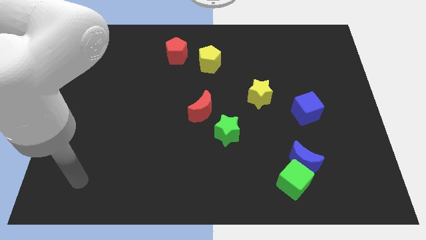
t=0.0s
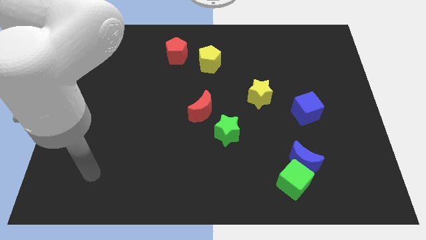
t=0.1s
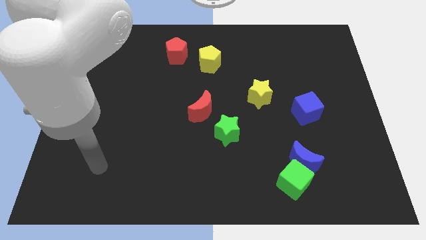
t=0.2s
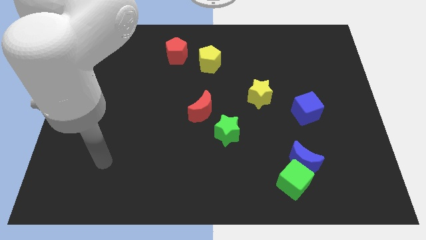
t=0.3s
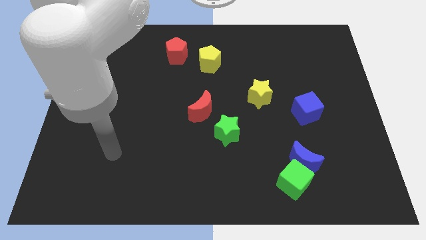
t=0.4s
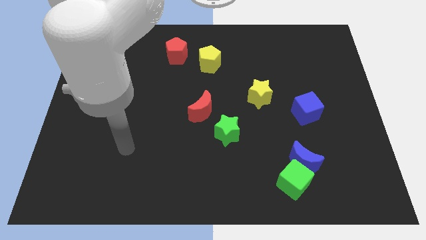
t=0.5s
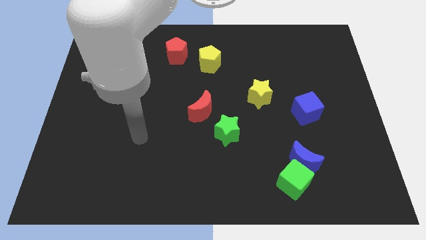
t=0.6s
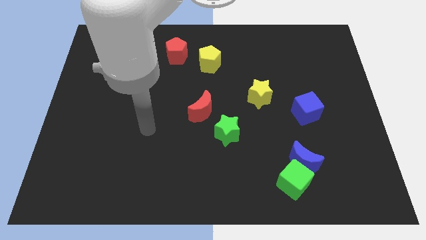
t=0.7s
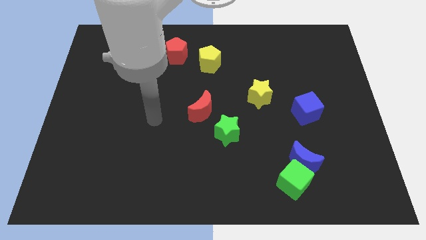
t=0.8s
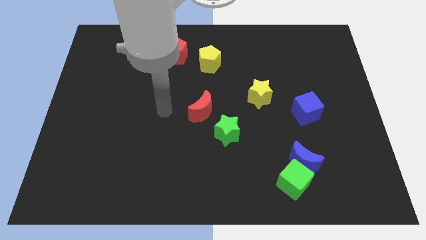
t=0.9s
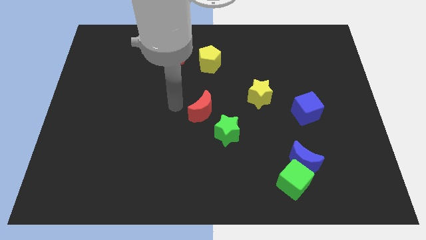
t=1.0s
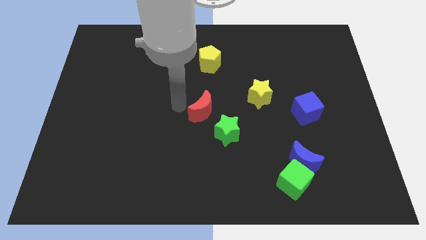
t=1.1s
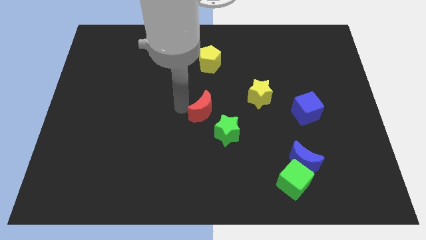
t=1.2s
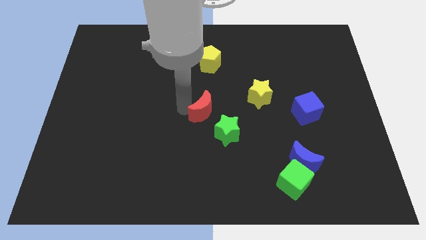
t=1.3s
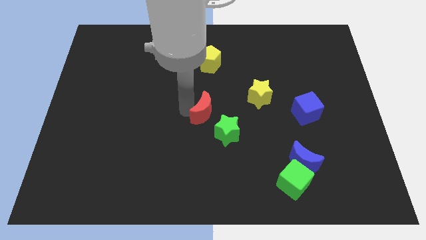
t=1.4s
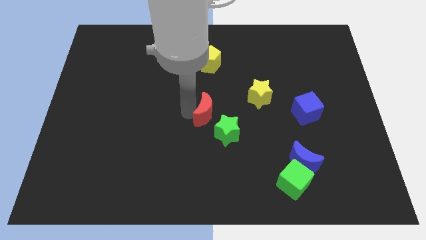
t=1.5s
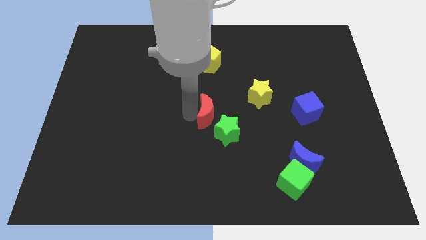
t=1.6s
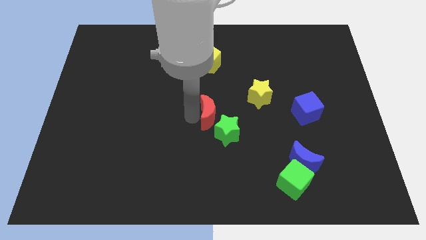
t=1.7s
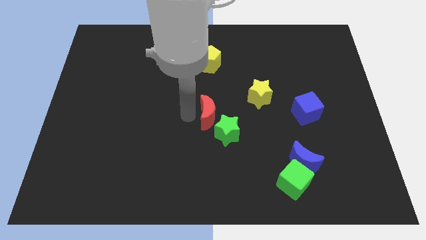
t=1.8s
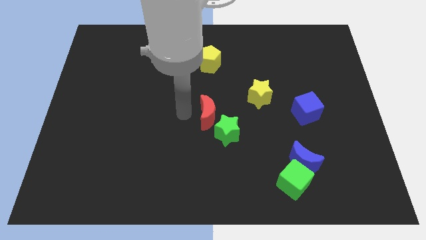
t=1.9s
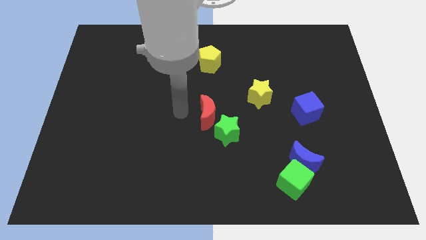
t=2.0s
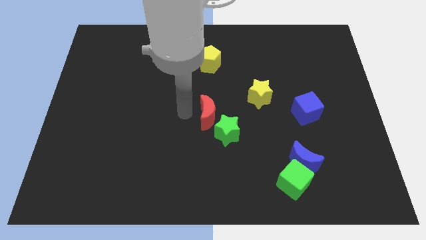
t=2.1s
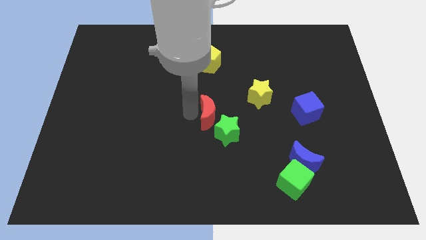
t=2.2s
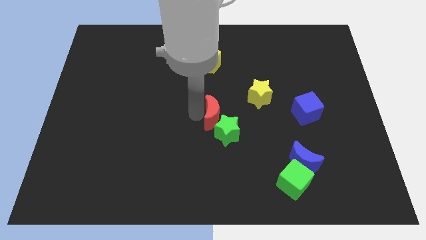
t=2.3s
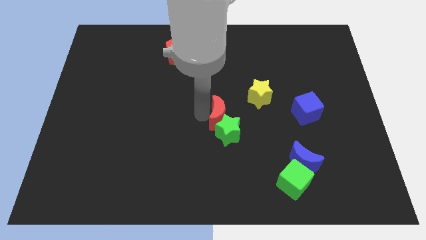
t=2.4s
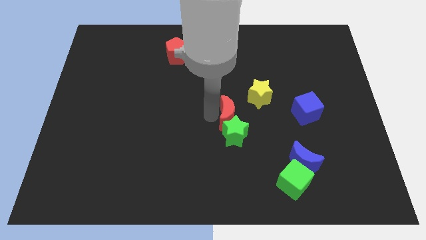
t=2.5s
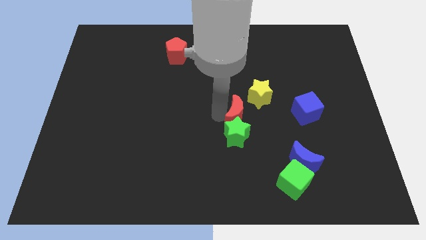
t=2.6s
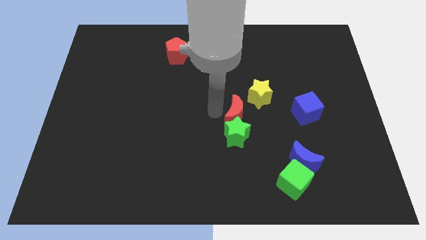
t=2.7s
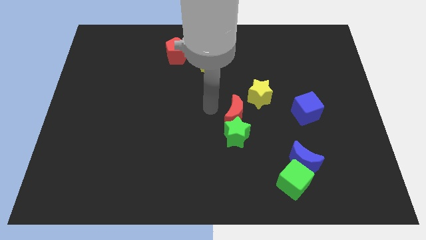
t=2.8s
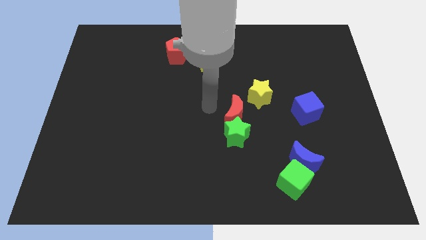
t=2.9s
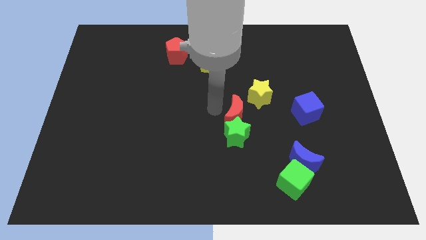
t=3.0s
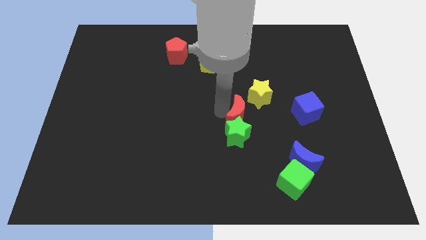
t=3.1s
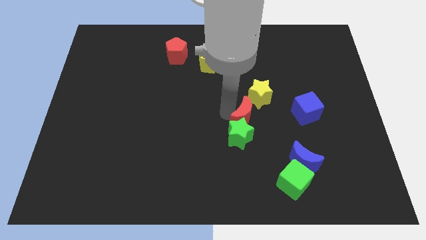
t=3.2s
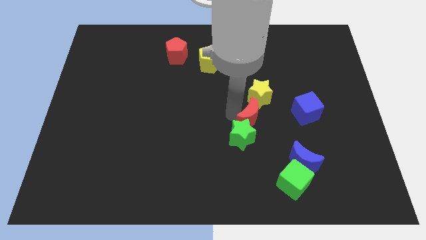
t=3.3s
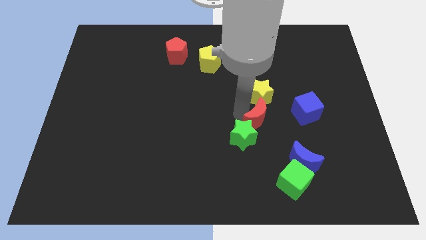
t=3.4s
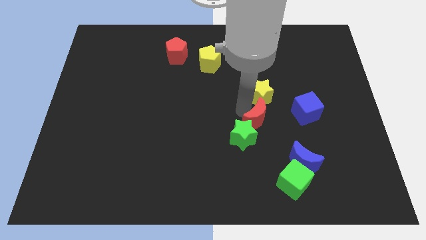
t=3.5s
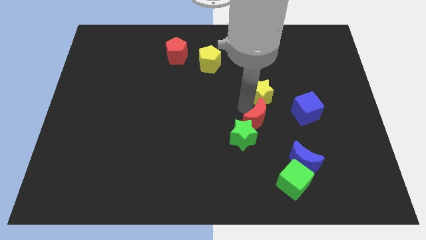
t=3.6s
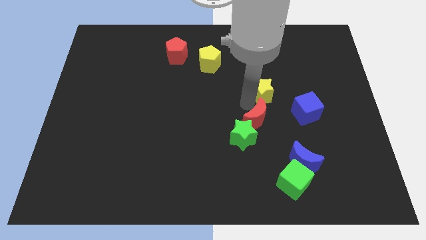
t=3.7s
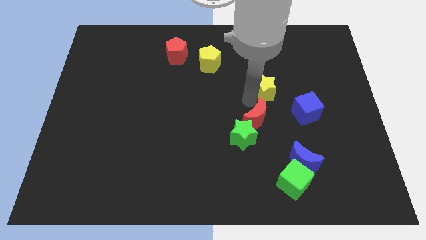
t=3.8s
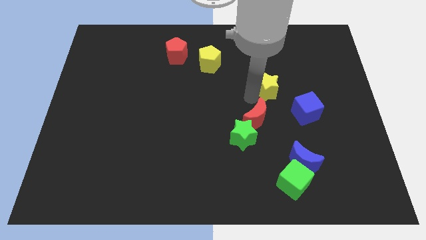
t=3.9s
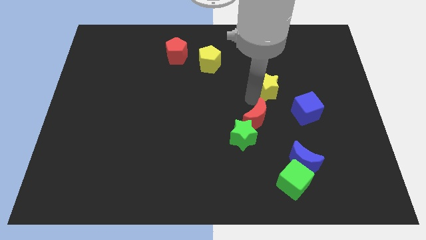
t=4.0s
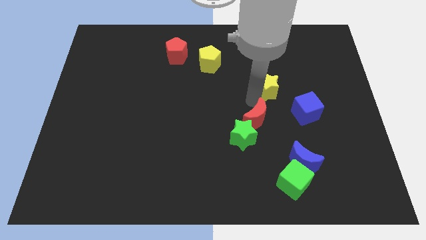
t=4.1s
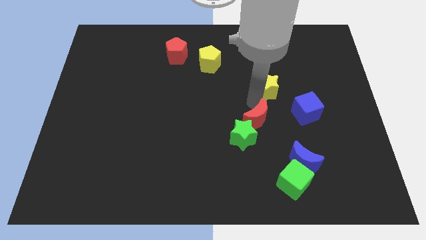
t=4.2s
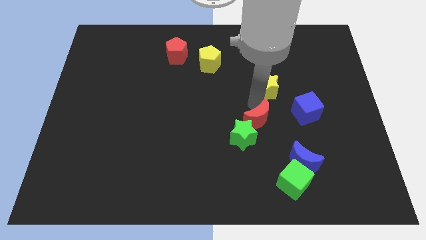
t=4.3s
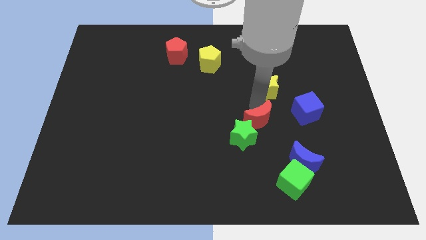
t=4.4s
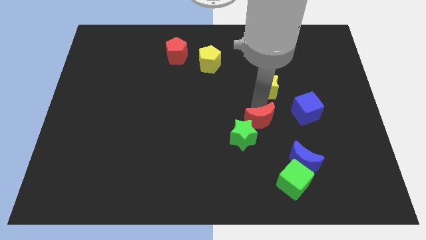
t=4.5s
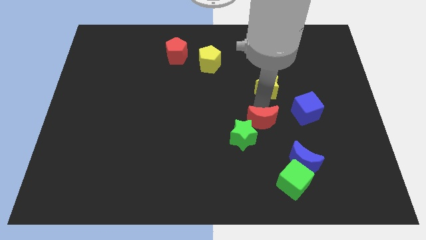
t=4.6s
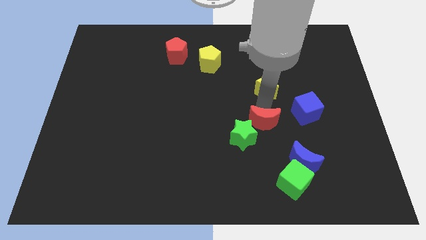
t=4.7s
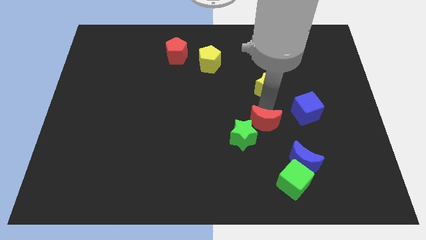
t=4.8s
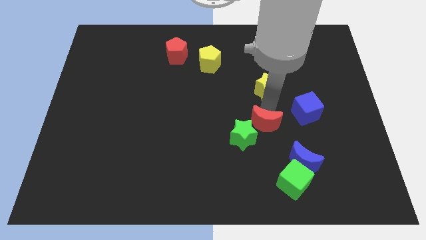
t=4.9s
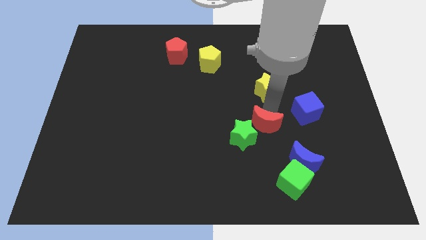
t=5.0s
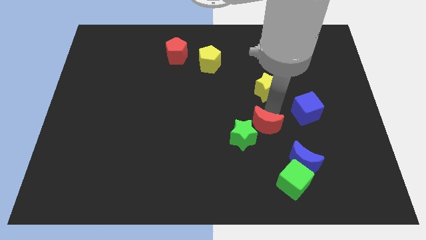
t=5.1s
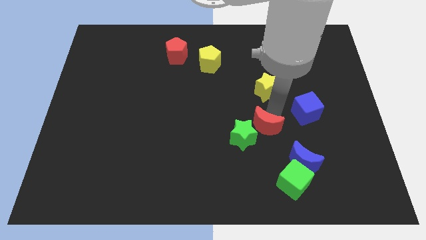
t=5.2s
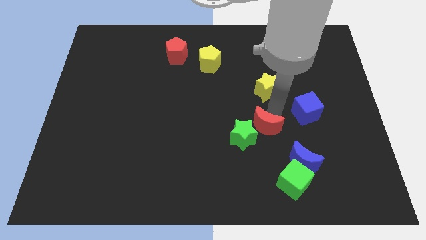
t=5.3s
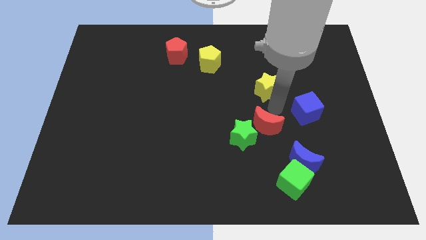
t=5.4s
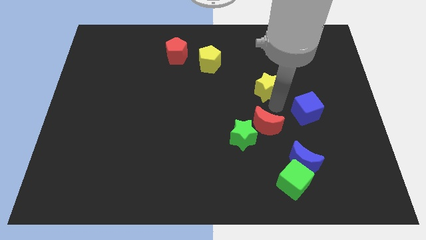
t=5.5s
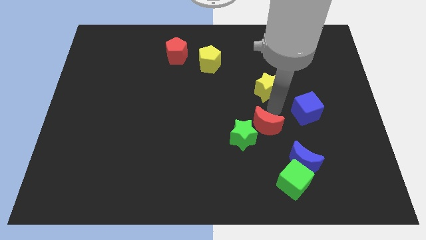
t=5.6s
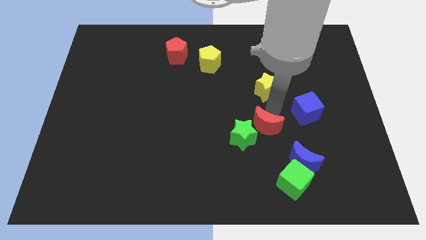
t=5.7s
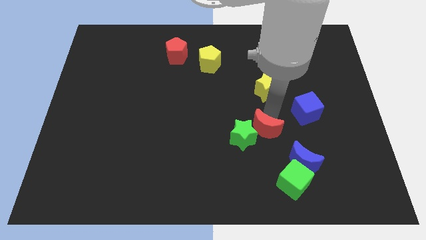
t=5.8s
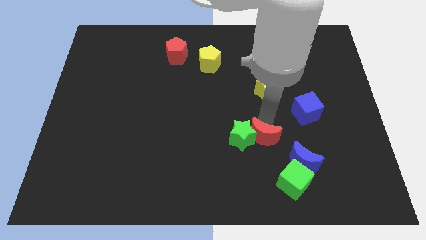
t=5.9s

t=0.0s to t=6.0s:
push the red moon to the bottom right of the green star

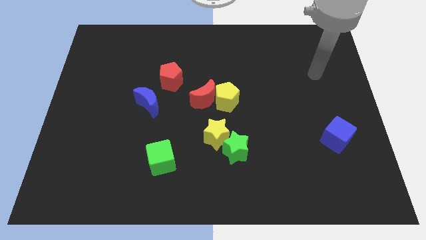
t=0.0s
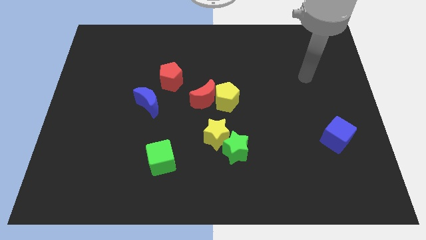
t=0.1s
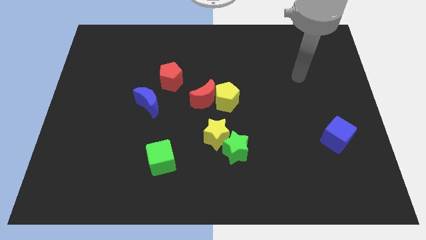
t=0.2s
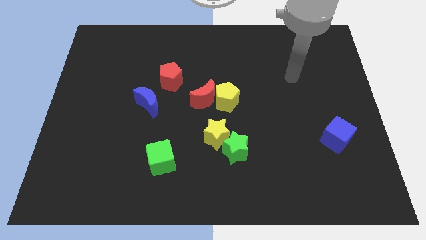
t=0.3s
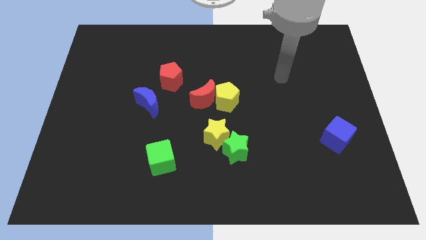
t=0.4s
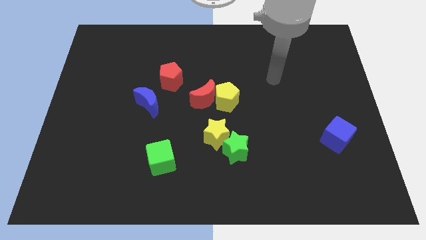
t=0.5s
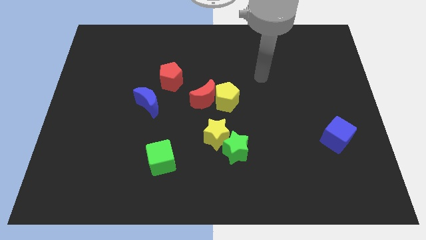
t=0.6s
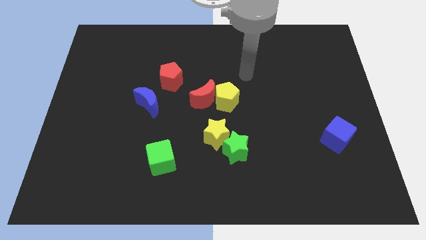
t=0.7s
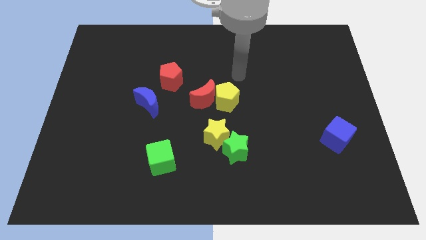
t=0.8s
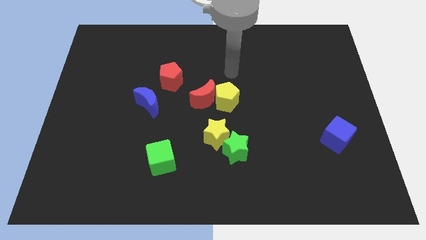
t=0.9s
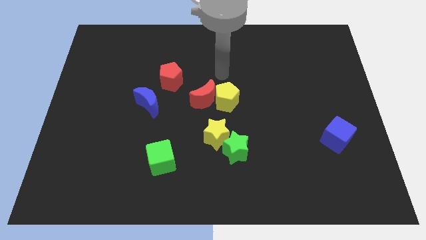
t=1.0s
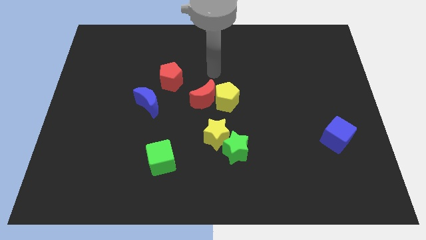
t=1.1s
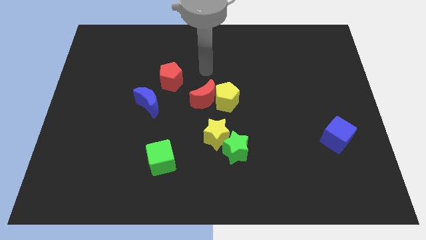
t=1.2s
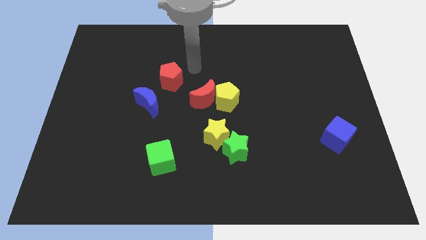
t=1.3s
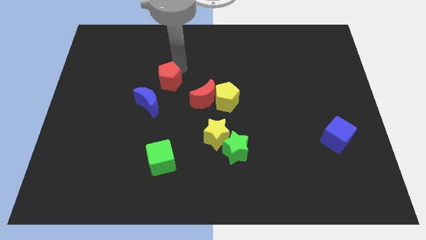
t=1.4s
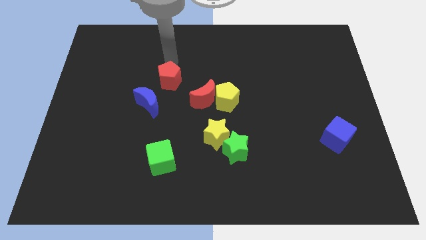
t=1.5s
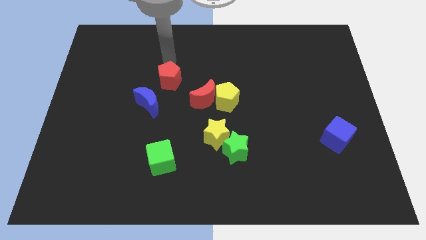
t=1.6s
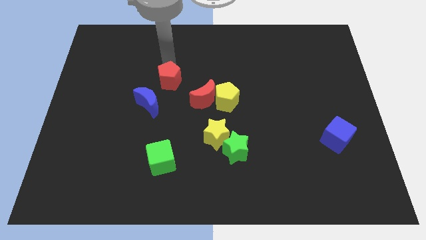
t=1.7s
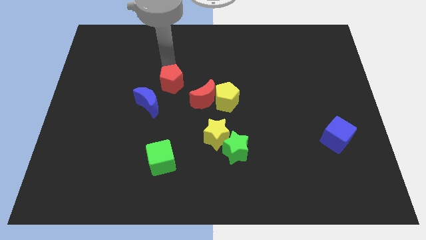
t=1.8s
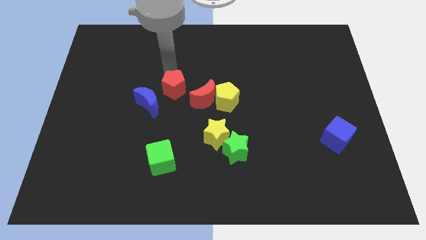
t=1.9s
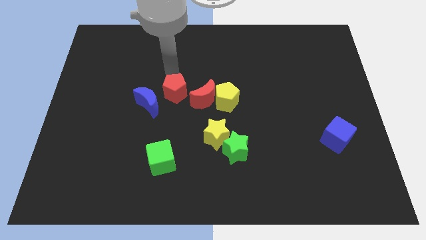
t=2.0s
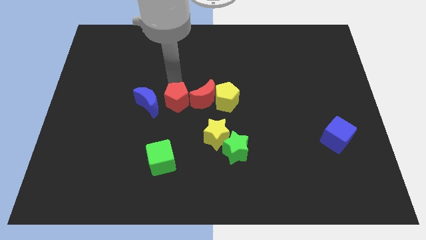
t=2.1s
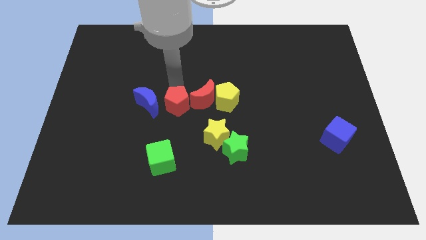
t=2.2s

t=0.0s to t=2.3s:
put the red pentagon to the bottom right side of the blue moon
